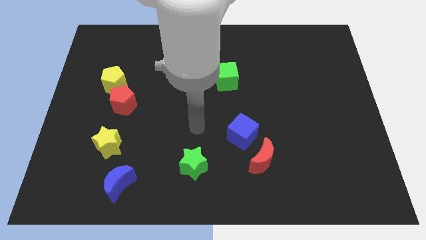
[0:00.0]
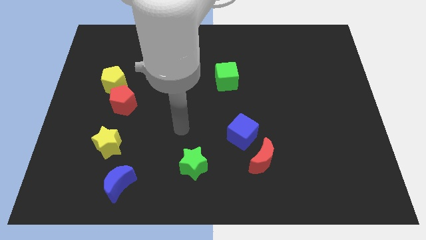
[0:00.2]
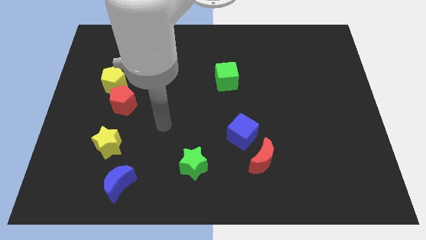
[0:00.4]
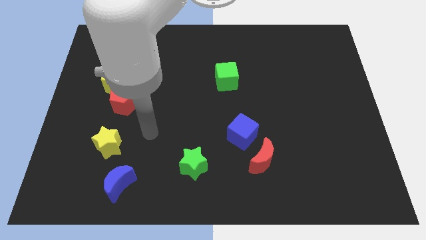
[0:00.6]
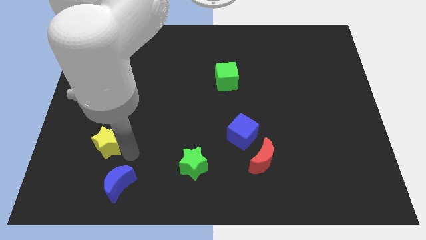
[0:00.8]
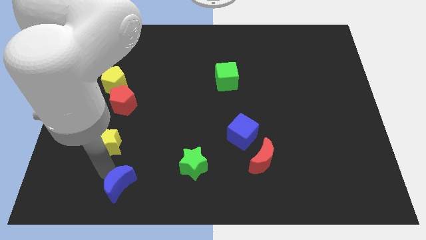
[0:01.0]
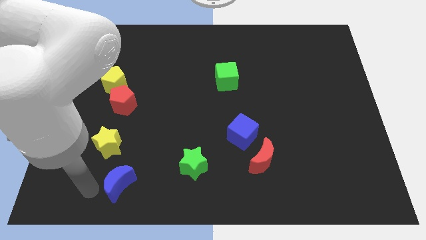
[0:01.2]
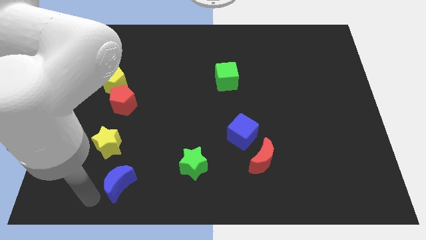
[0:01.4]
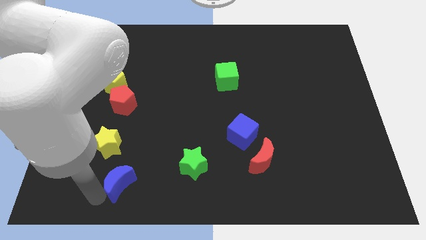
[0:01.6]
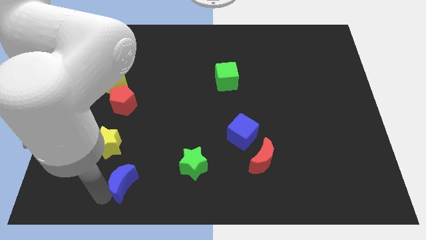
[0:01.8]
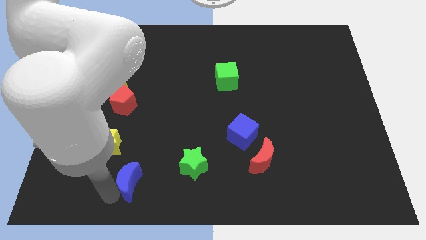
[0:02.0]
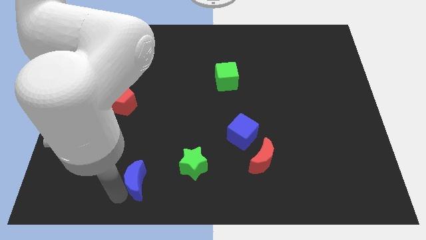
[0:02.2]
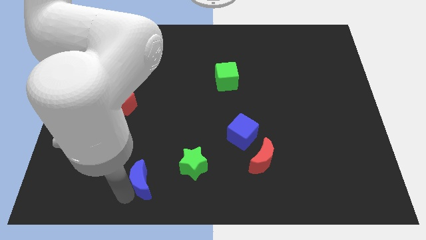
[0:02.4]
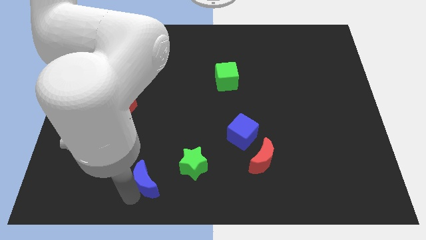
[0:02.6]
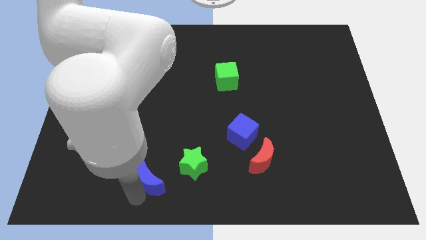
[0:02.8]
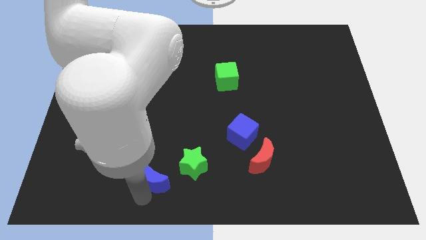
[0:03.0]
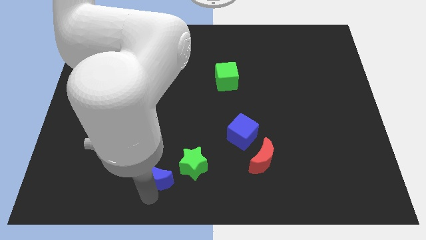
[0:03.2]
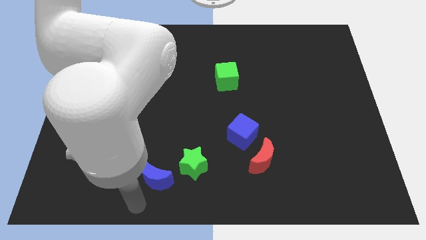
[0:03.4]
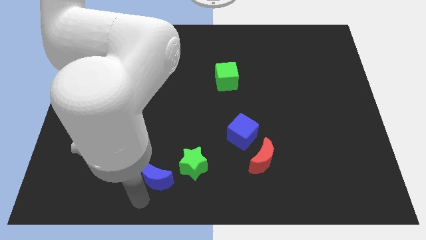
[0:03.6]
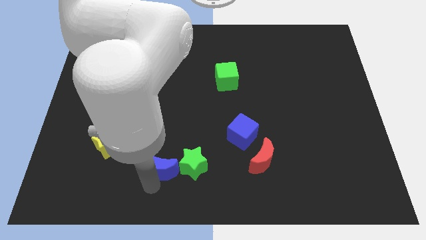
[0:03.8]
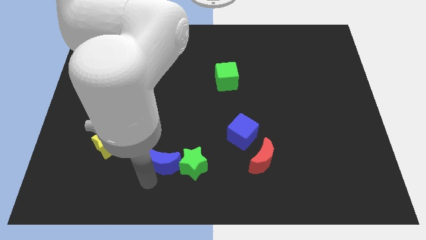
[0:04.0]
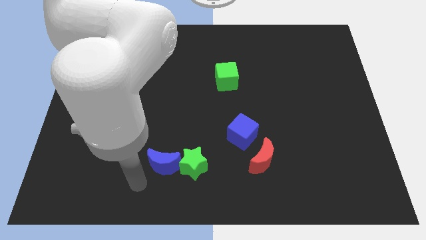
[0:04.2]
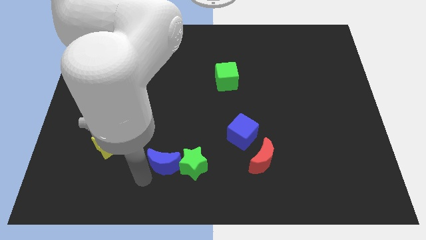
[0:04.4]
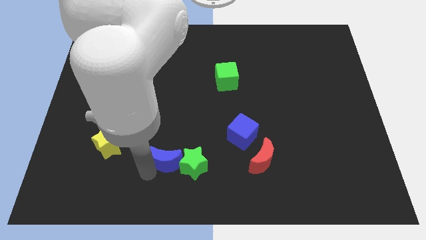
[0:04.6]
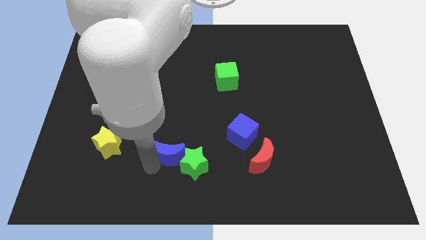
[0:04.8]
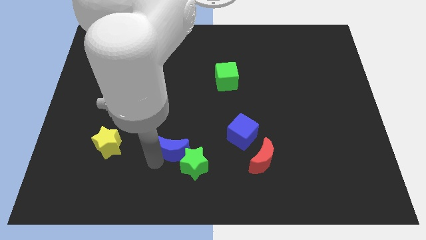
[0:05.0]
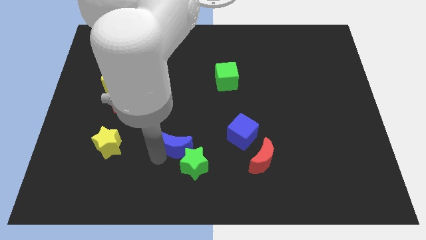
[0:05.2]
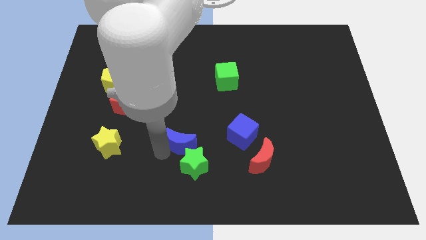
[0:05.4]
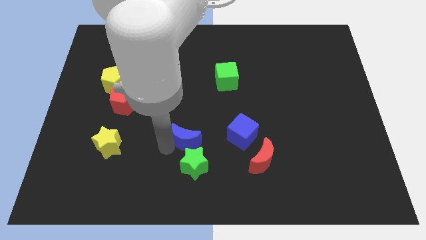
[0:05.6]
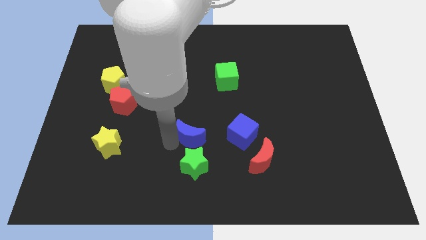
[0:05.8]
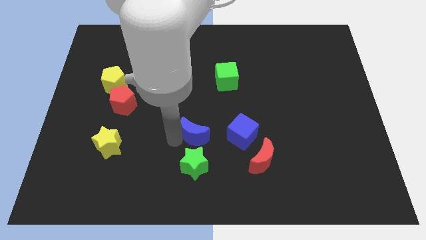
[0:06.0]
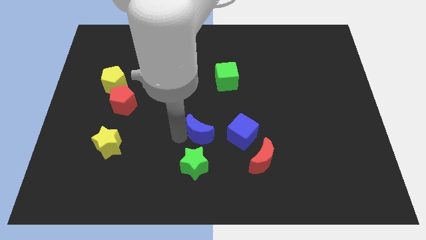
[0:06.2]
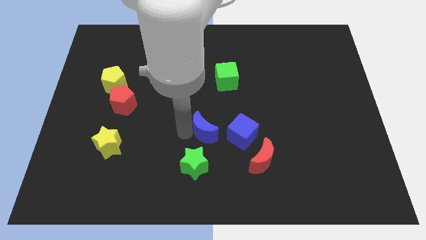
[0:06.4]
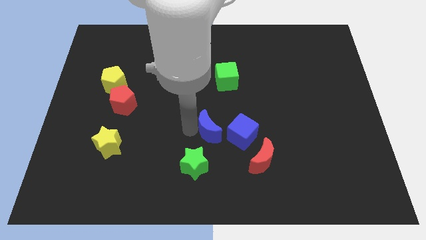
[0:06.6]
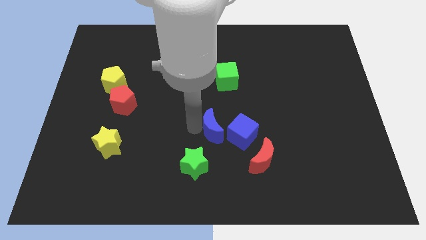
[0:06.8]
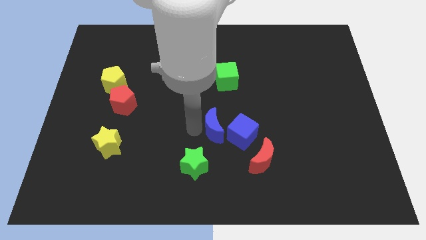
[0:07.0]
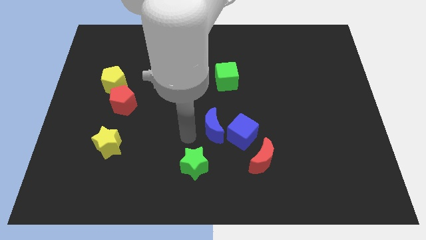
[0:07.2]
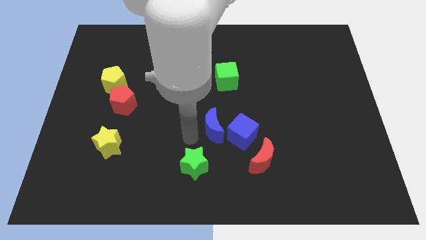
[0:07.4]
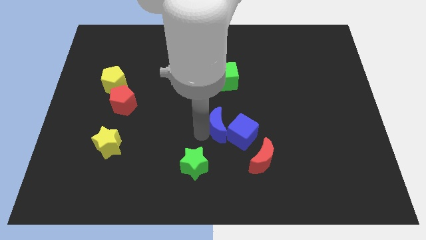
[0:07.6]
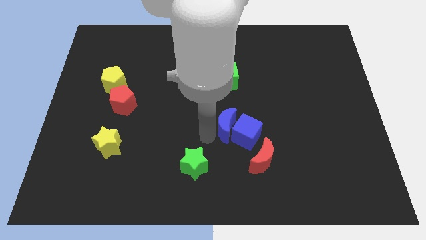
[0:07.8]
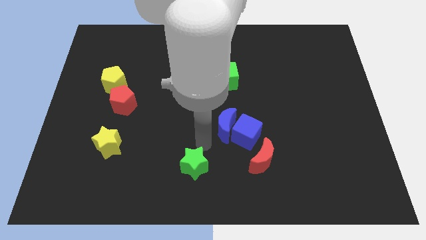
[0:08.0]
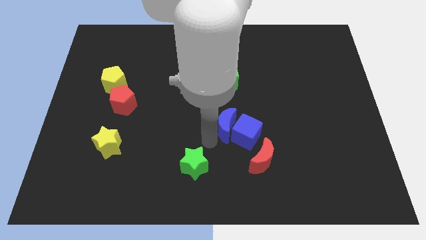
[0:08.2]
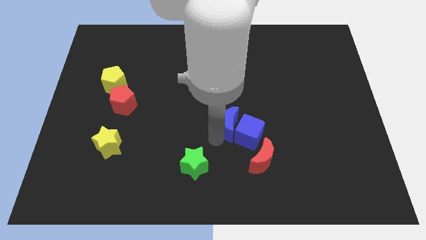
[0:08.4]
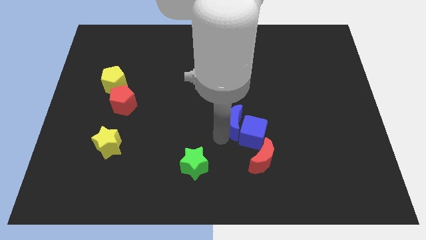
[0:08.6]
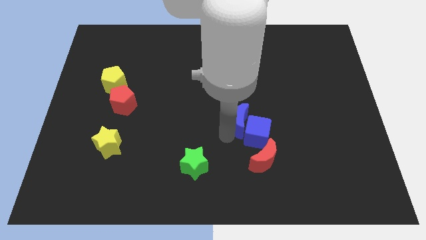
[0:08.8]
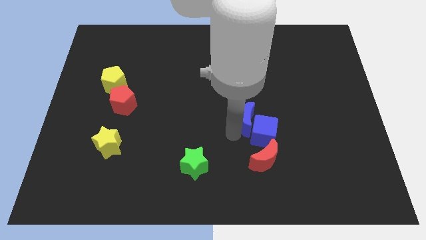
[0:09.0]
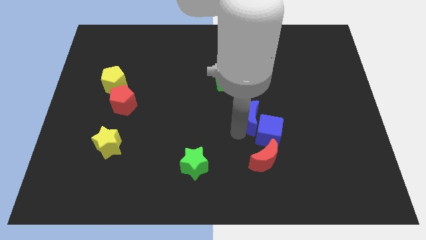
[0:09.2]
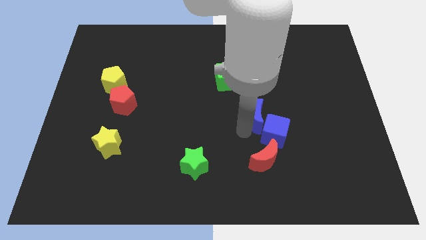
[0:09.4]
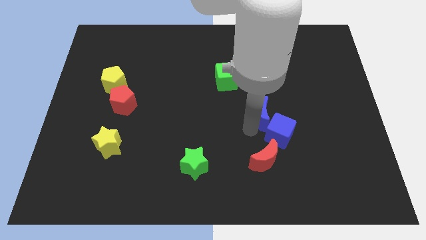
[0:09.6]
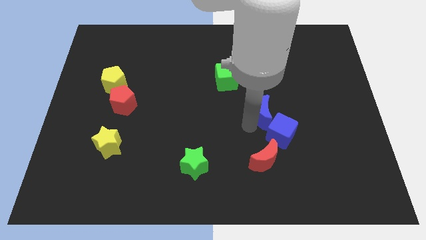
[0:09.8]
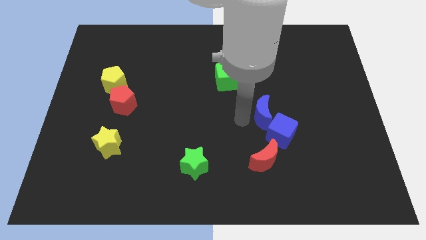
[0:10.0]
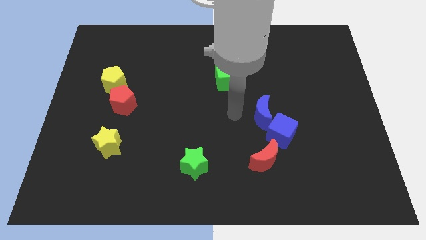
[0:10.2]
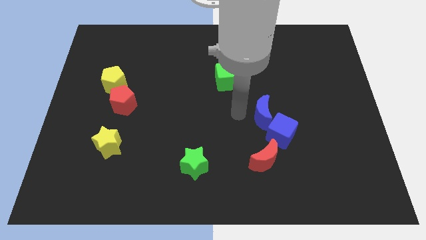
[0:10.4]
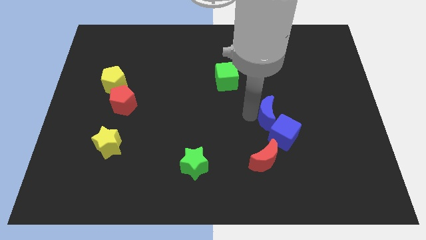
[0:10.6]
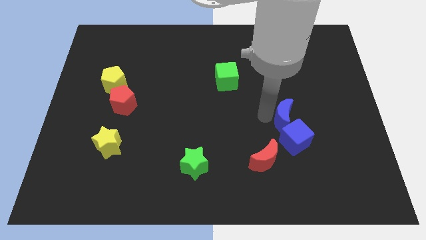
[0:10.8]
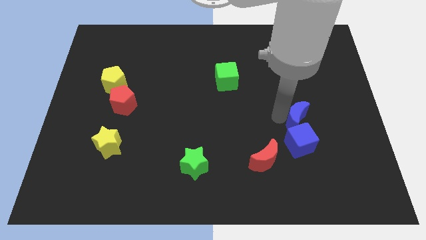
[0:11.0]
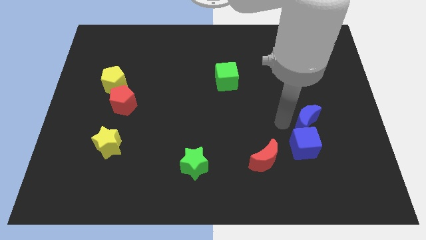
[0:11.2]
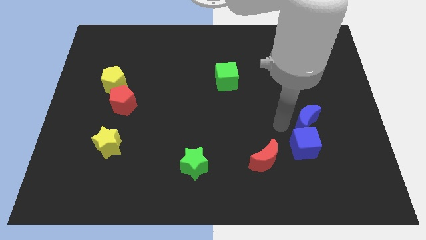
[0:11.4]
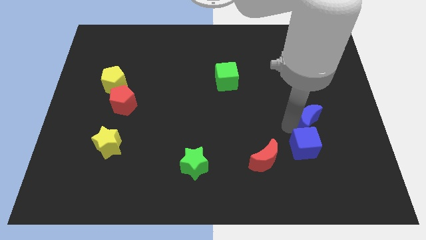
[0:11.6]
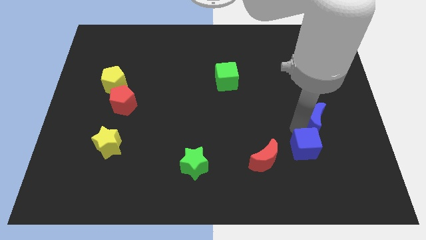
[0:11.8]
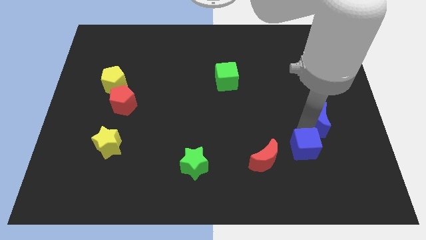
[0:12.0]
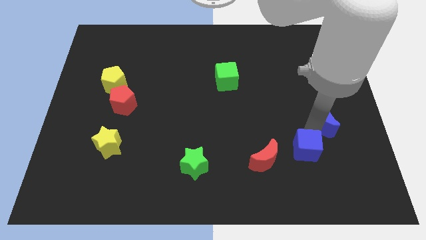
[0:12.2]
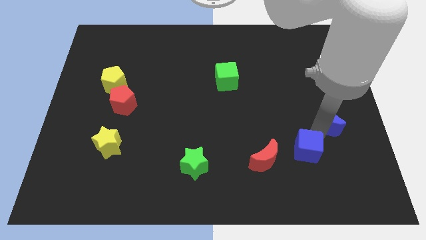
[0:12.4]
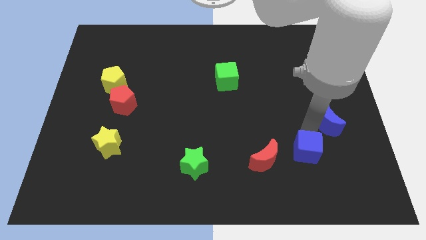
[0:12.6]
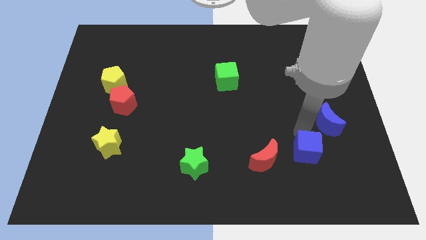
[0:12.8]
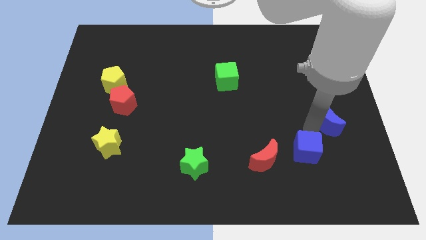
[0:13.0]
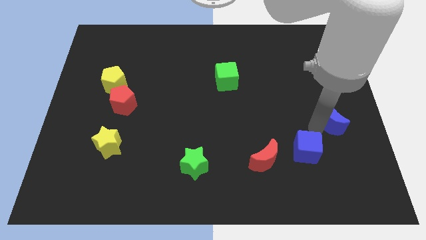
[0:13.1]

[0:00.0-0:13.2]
put the blue moon to the center right

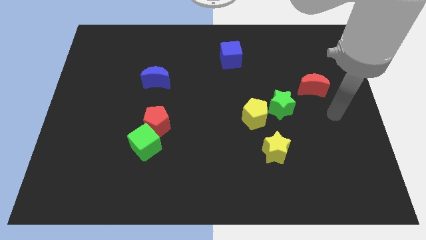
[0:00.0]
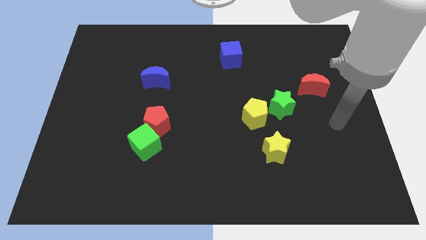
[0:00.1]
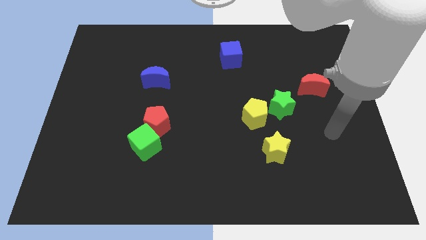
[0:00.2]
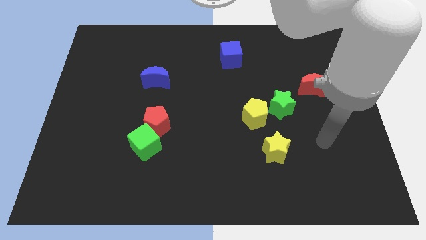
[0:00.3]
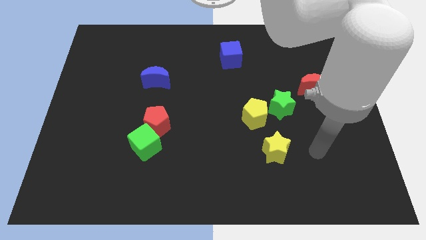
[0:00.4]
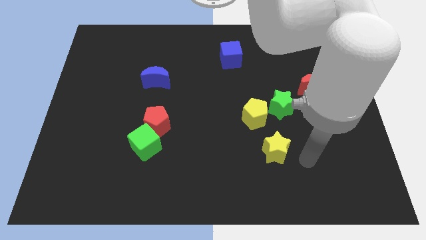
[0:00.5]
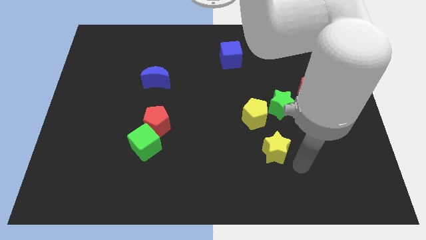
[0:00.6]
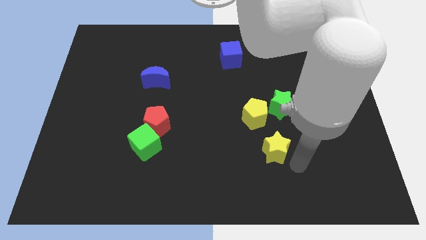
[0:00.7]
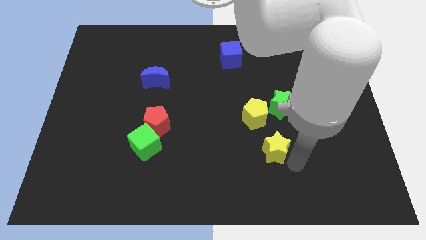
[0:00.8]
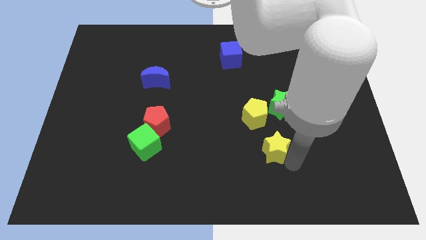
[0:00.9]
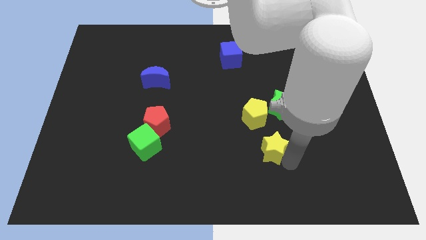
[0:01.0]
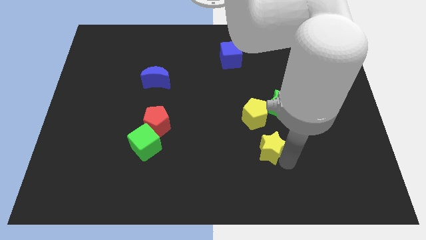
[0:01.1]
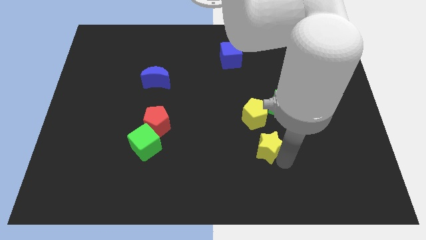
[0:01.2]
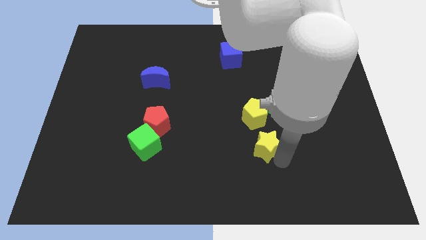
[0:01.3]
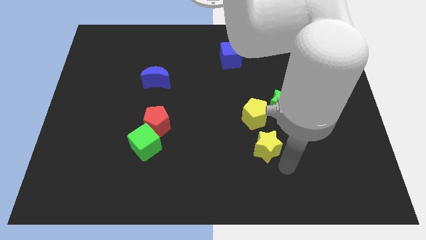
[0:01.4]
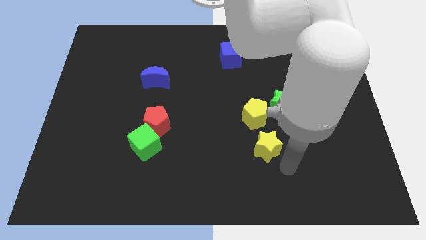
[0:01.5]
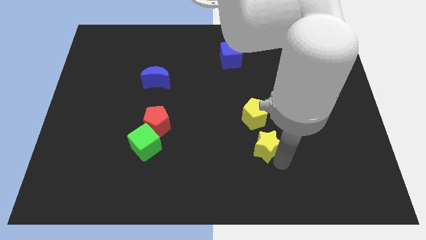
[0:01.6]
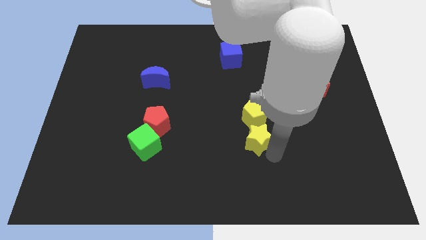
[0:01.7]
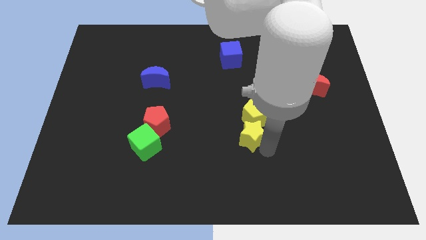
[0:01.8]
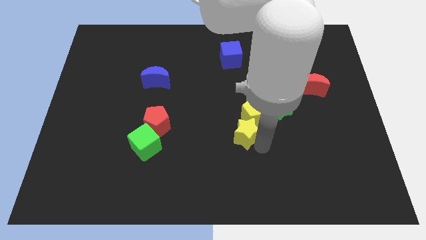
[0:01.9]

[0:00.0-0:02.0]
slide the yellow star to the middle
